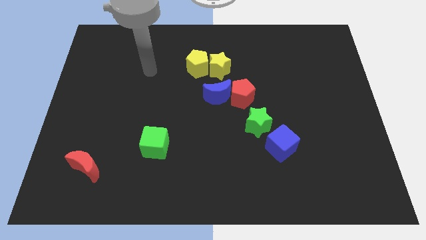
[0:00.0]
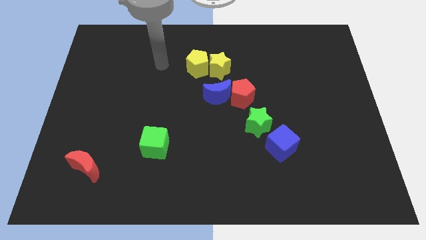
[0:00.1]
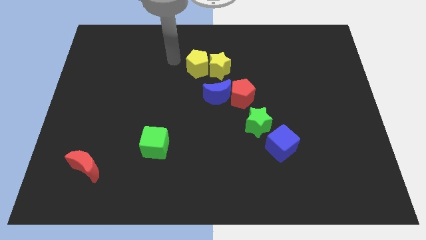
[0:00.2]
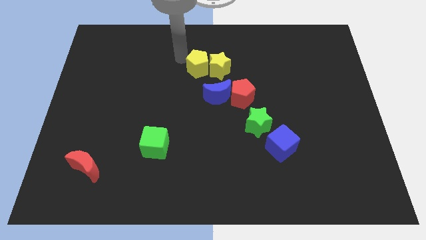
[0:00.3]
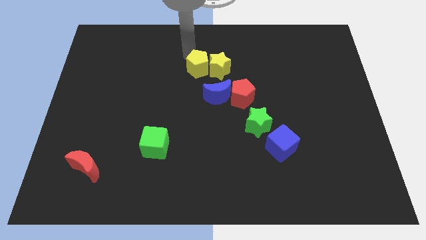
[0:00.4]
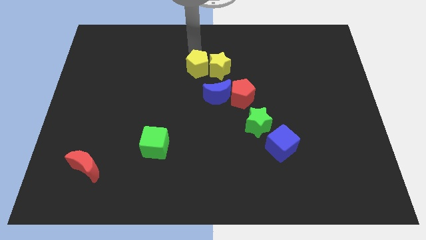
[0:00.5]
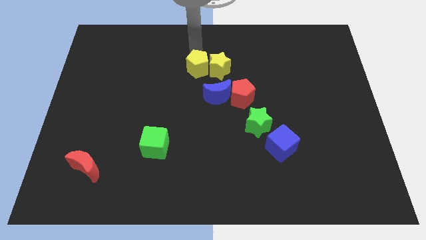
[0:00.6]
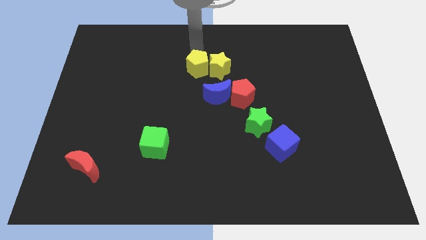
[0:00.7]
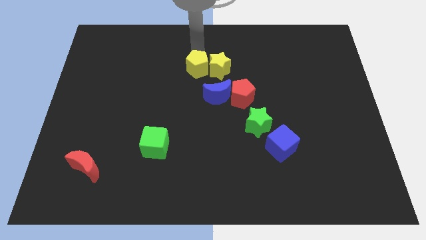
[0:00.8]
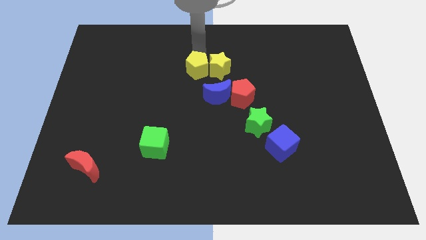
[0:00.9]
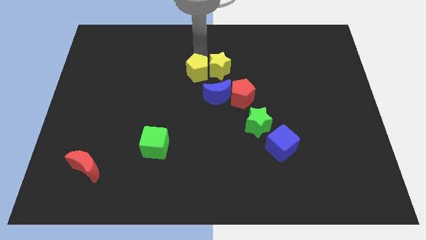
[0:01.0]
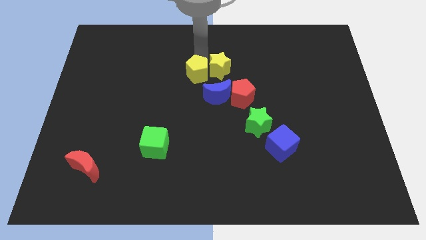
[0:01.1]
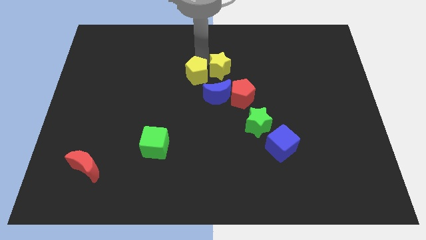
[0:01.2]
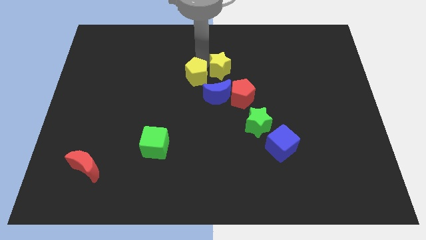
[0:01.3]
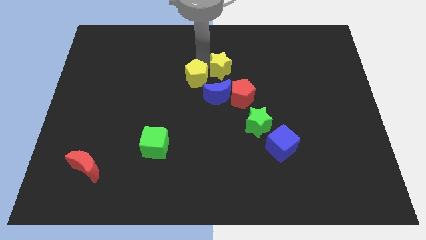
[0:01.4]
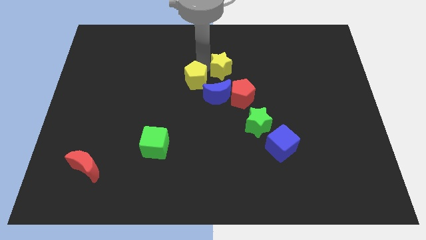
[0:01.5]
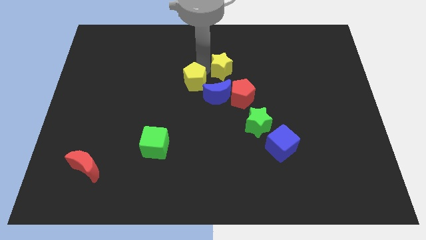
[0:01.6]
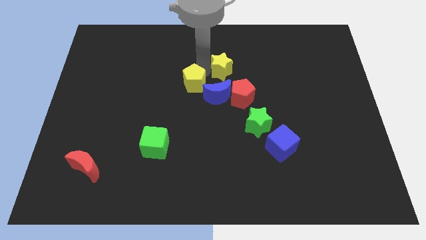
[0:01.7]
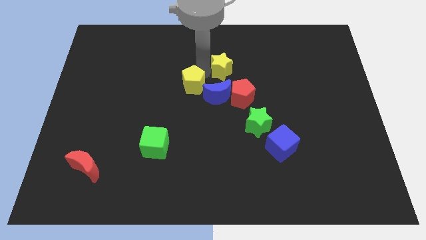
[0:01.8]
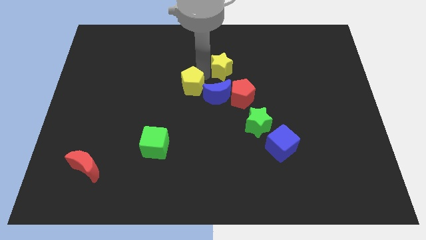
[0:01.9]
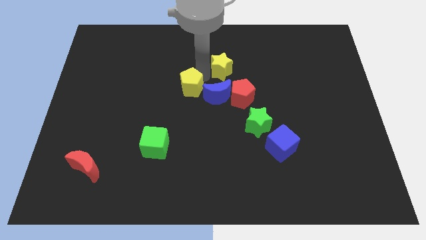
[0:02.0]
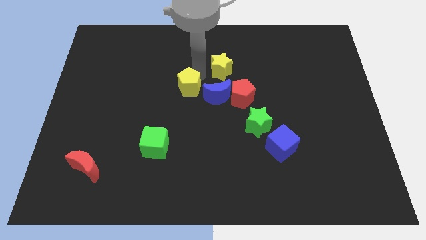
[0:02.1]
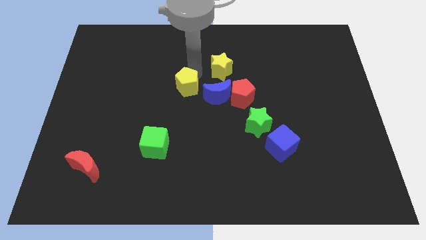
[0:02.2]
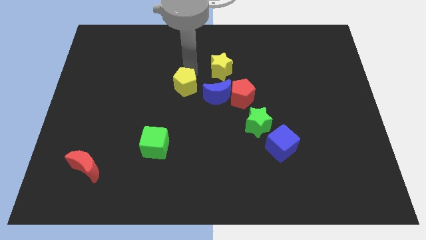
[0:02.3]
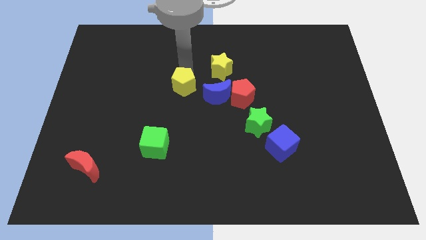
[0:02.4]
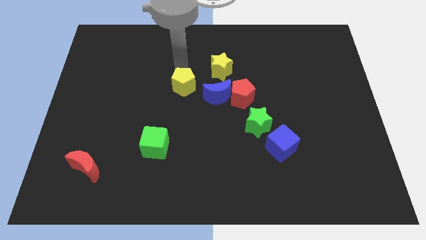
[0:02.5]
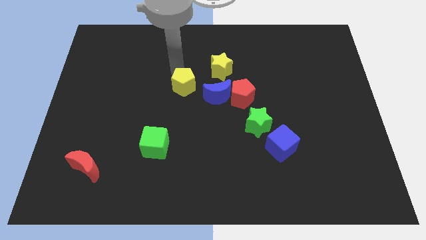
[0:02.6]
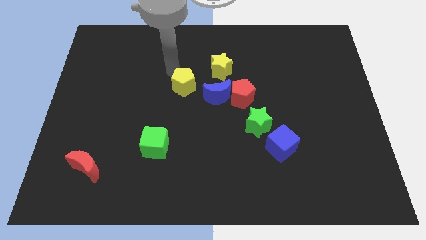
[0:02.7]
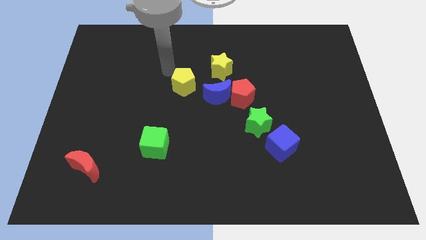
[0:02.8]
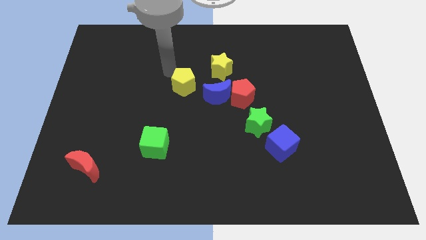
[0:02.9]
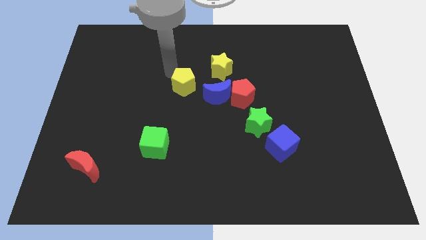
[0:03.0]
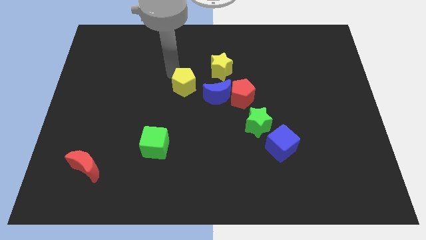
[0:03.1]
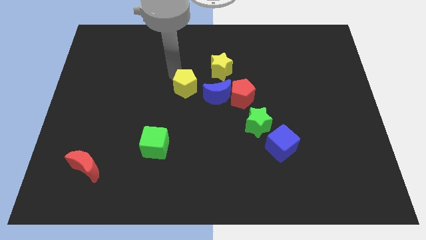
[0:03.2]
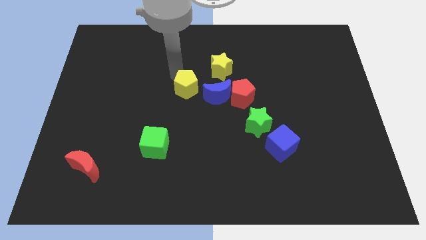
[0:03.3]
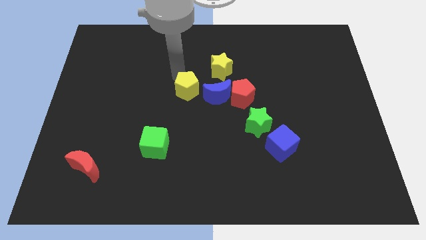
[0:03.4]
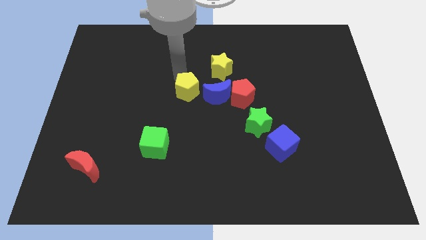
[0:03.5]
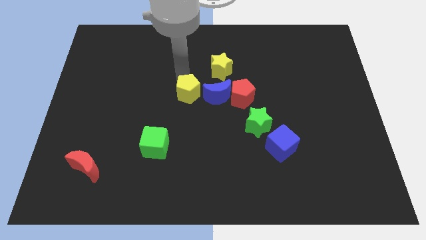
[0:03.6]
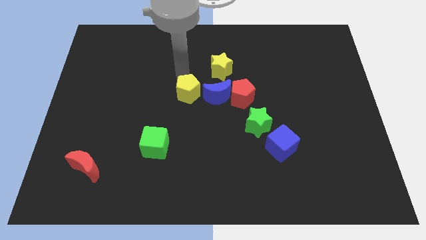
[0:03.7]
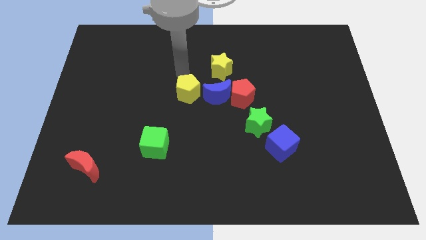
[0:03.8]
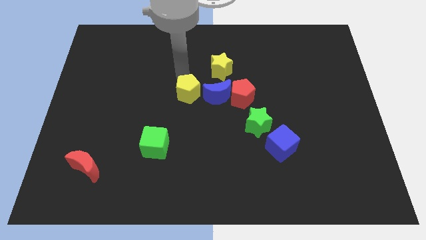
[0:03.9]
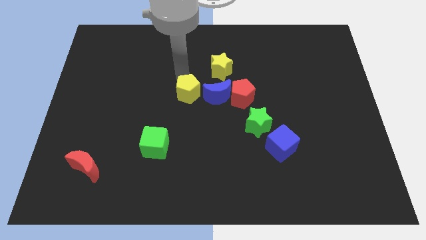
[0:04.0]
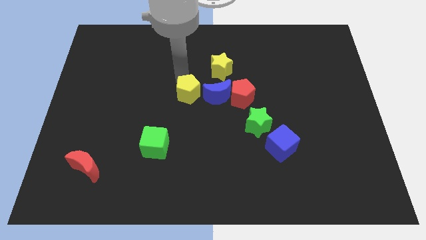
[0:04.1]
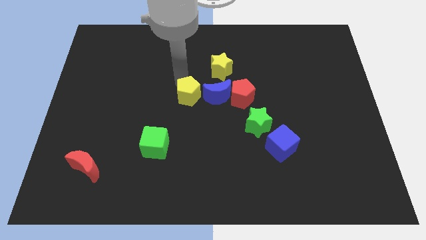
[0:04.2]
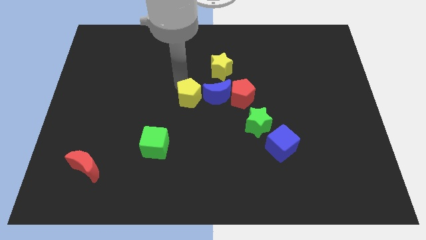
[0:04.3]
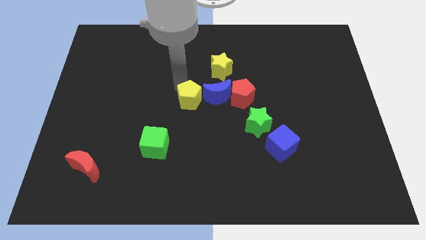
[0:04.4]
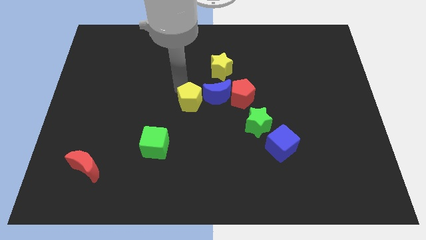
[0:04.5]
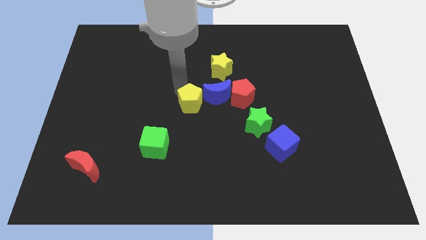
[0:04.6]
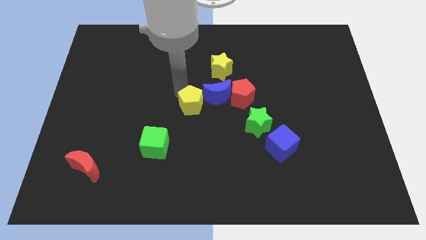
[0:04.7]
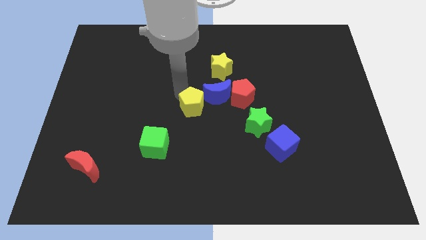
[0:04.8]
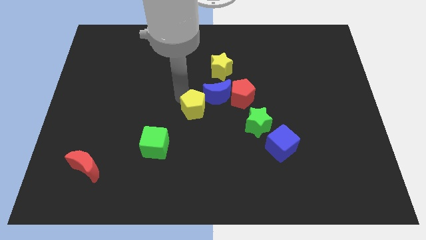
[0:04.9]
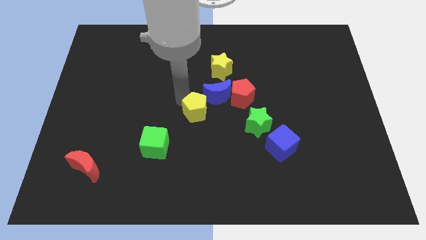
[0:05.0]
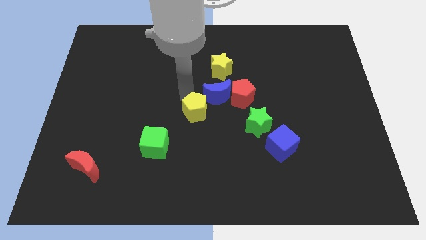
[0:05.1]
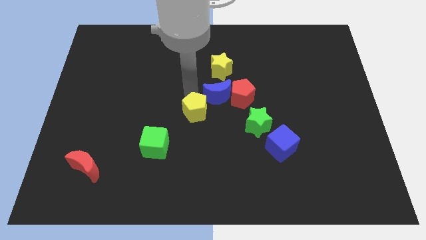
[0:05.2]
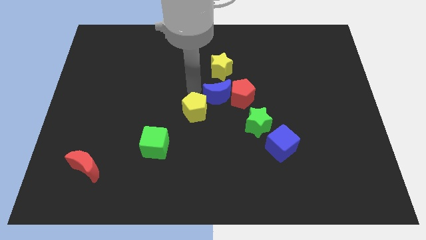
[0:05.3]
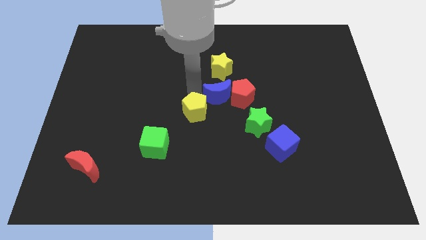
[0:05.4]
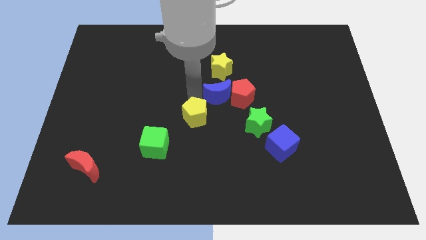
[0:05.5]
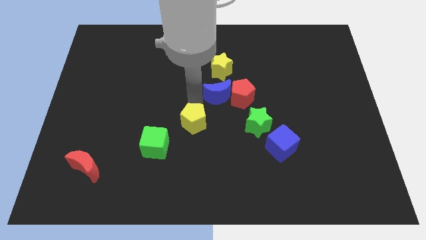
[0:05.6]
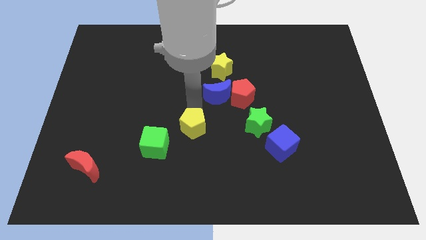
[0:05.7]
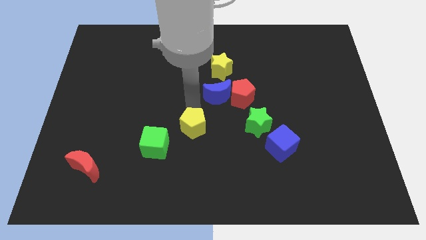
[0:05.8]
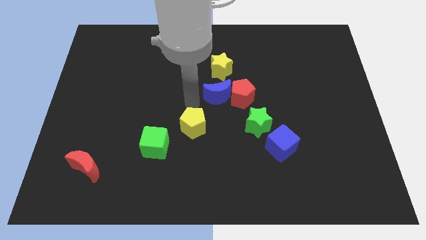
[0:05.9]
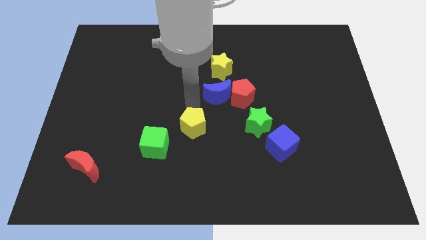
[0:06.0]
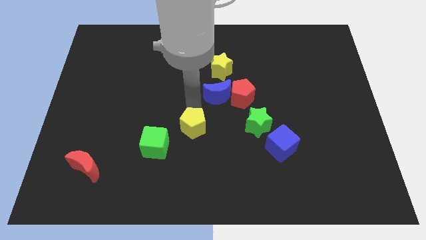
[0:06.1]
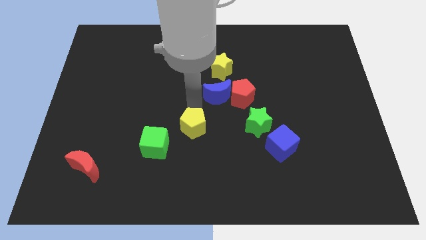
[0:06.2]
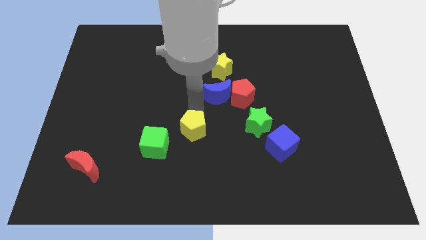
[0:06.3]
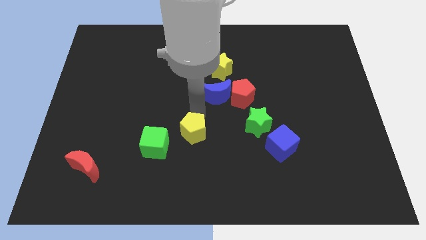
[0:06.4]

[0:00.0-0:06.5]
move the yellow pentagon down

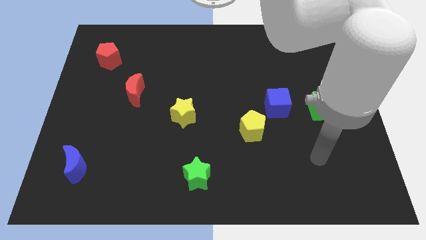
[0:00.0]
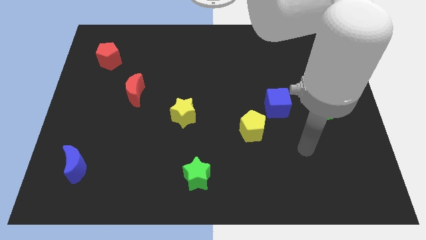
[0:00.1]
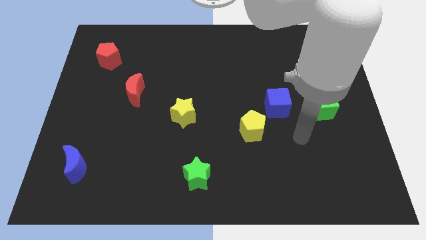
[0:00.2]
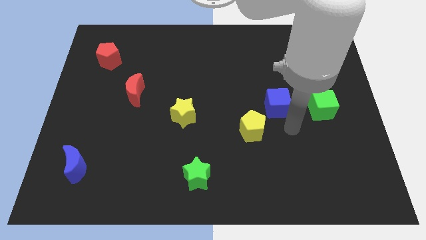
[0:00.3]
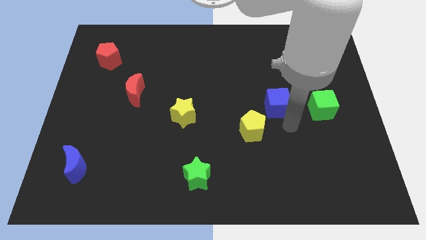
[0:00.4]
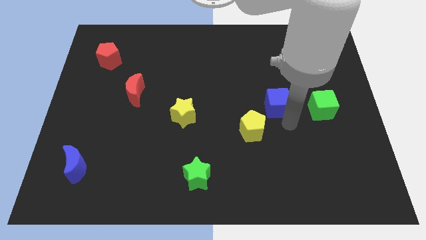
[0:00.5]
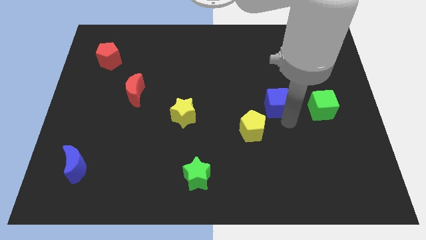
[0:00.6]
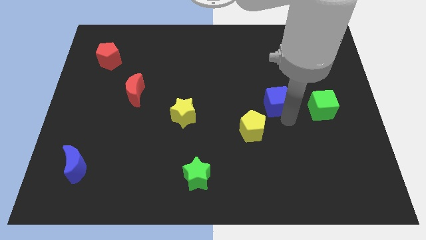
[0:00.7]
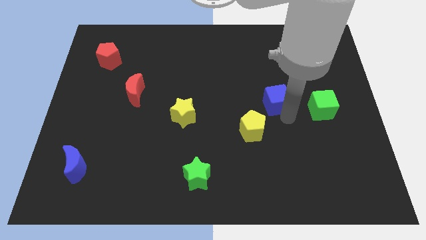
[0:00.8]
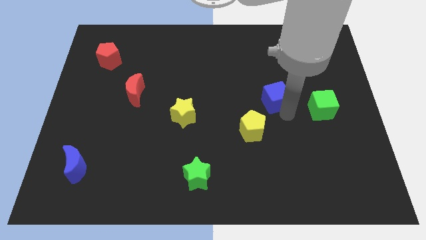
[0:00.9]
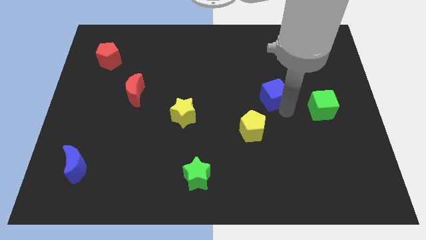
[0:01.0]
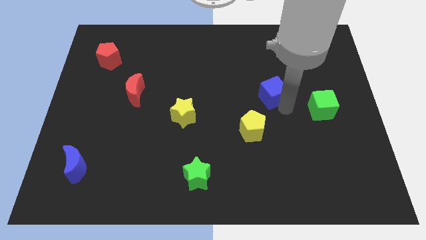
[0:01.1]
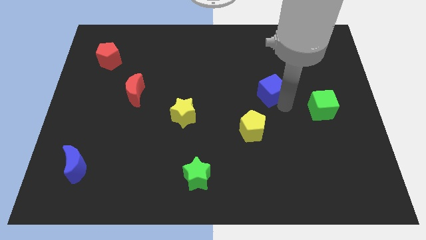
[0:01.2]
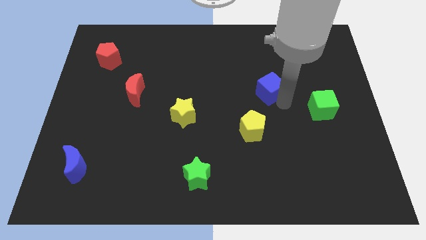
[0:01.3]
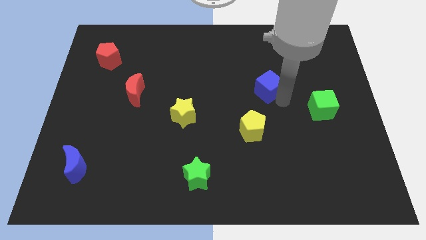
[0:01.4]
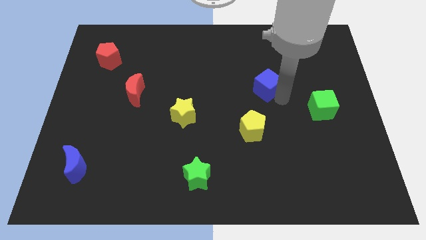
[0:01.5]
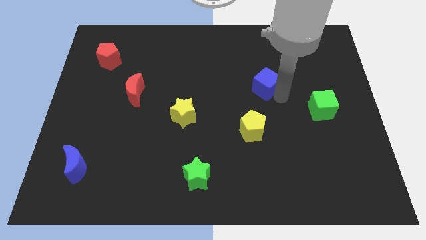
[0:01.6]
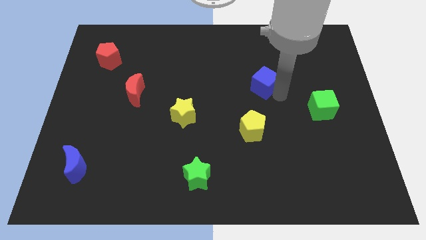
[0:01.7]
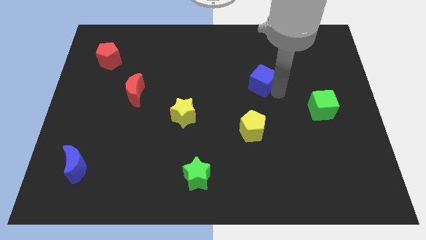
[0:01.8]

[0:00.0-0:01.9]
move the blue cube diagonally upwards and left somewhat
